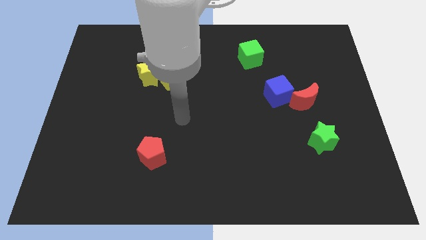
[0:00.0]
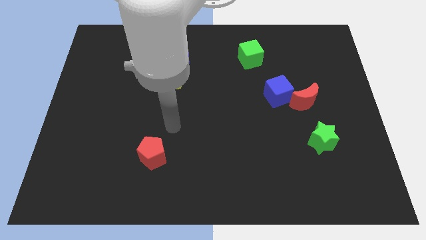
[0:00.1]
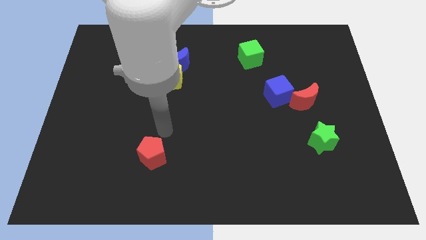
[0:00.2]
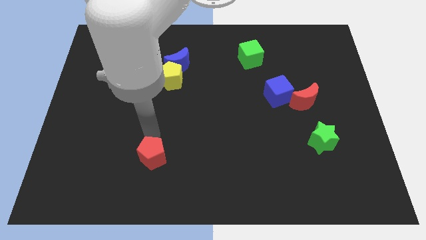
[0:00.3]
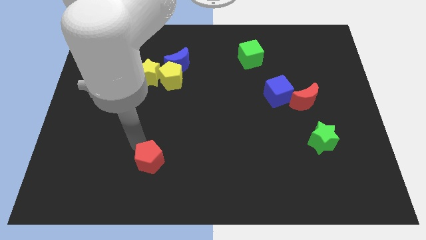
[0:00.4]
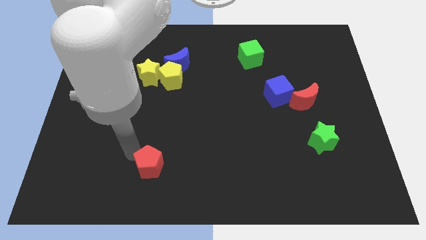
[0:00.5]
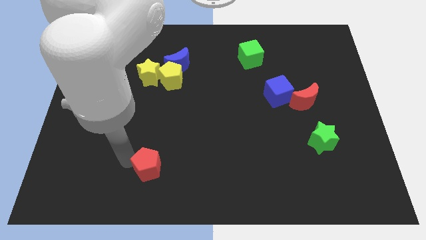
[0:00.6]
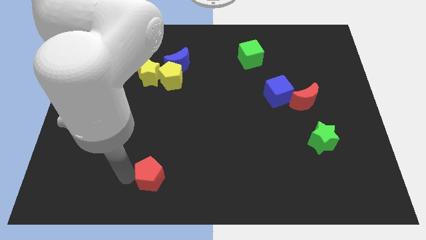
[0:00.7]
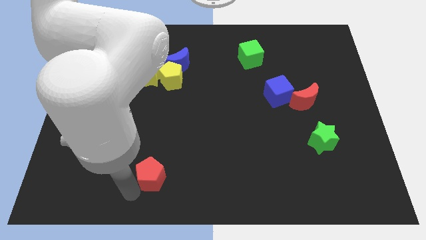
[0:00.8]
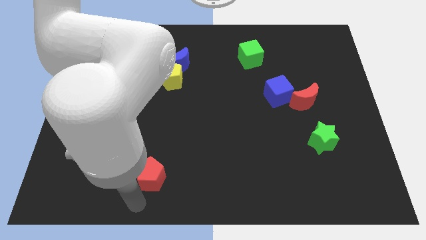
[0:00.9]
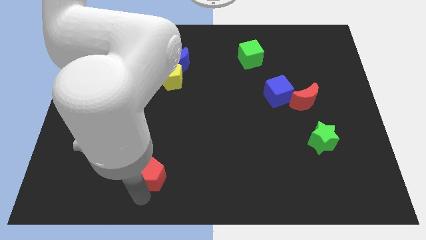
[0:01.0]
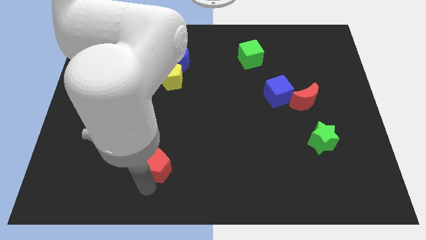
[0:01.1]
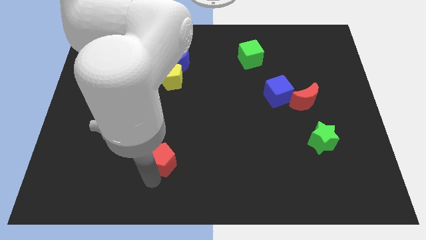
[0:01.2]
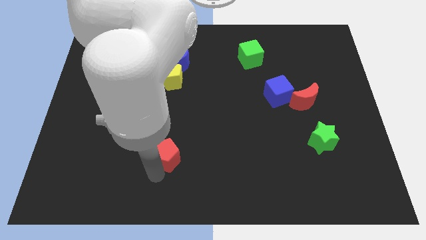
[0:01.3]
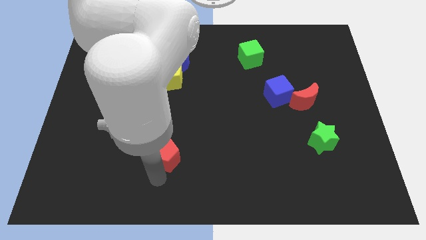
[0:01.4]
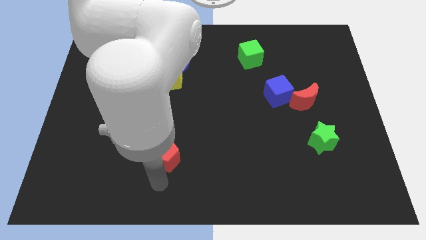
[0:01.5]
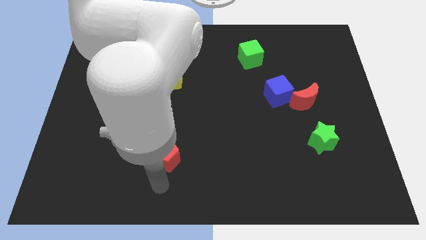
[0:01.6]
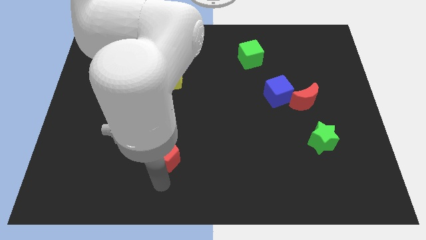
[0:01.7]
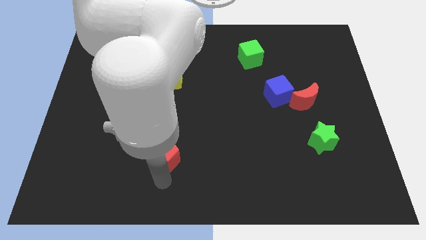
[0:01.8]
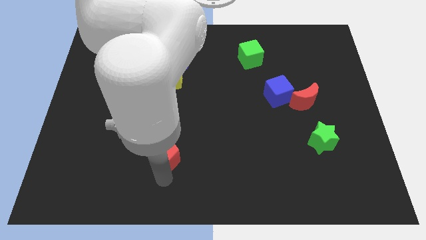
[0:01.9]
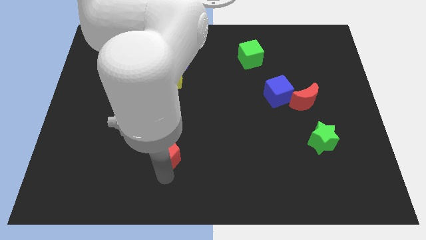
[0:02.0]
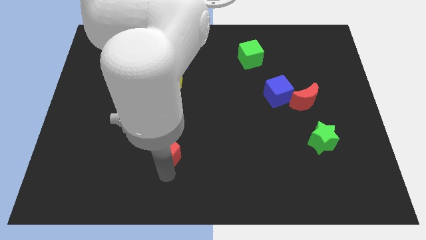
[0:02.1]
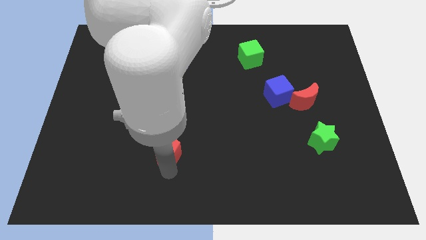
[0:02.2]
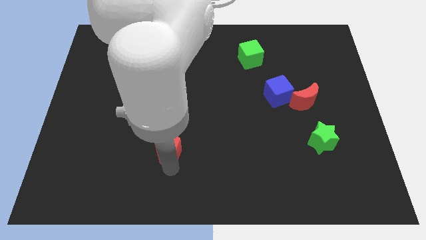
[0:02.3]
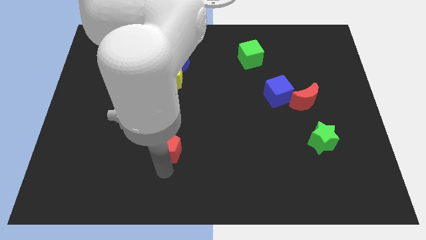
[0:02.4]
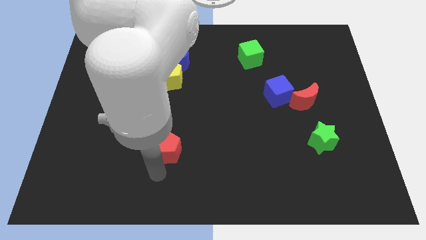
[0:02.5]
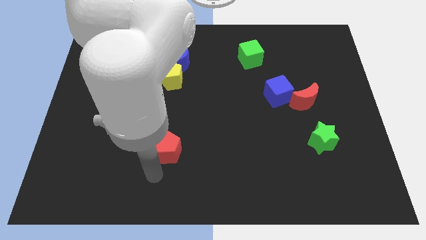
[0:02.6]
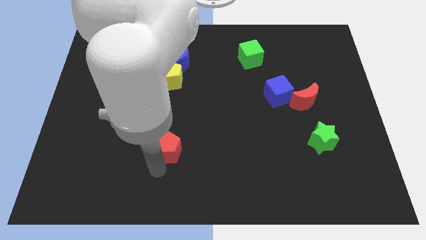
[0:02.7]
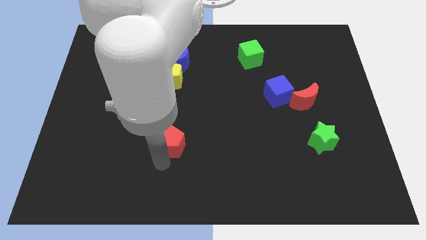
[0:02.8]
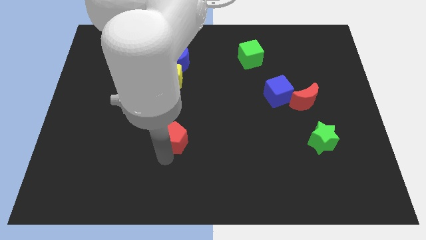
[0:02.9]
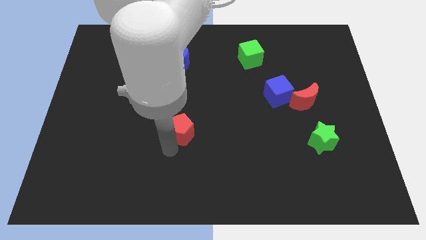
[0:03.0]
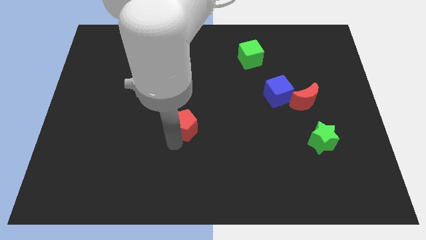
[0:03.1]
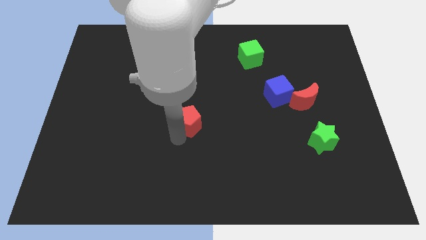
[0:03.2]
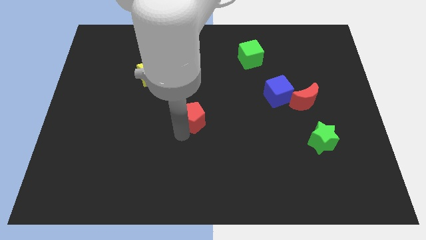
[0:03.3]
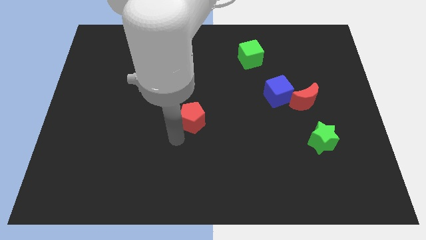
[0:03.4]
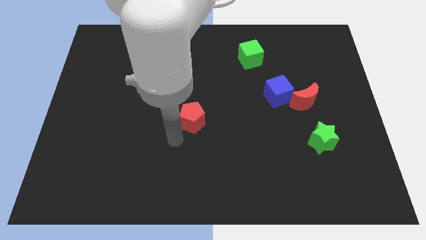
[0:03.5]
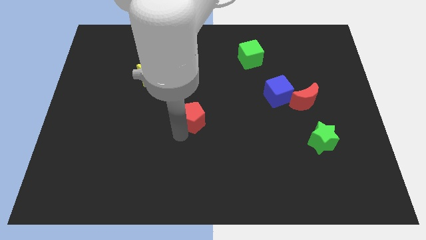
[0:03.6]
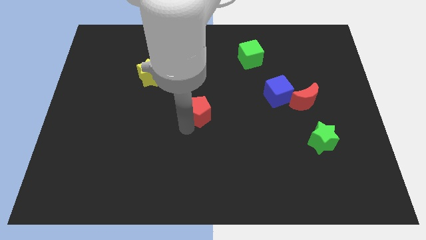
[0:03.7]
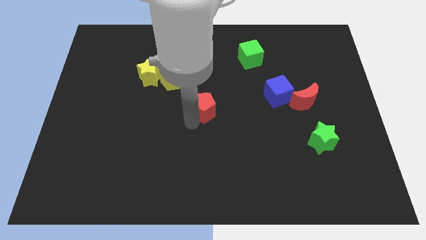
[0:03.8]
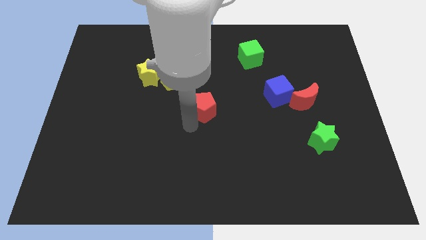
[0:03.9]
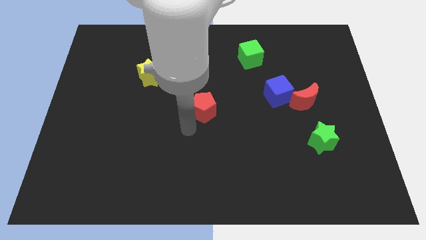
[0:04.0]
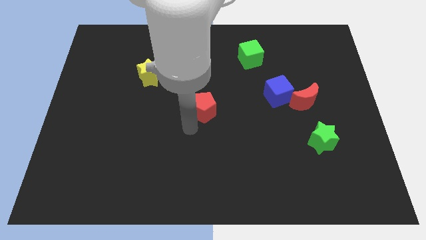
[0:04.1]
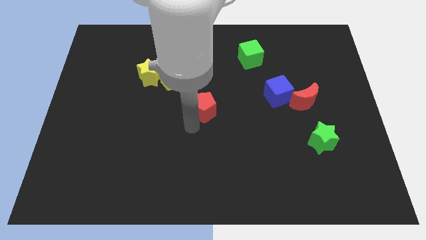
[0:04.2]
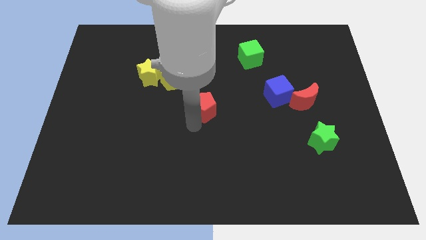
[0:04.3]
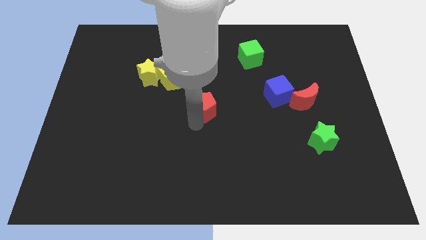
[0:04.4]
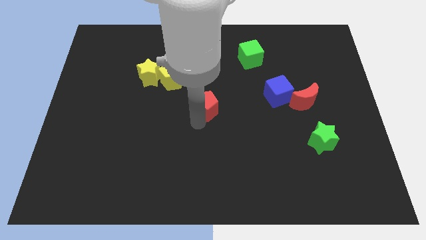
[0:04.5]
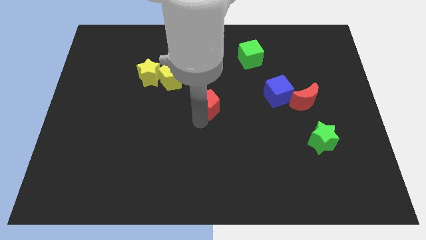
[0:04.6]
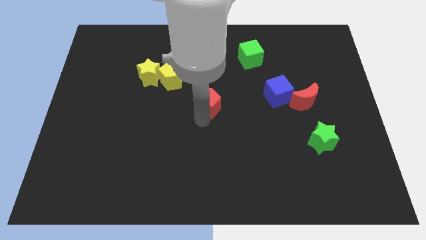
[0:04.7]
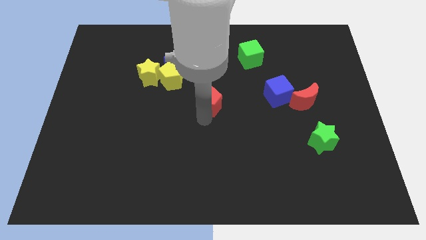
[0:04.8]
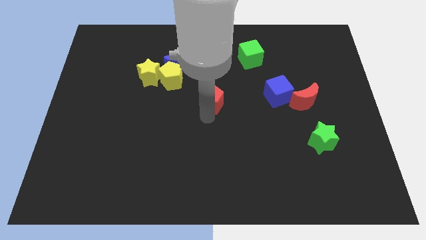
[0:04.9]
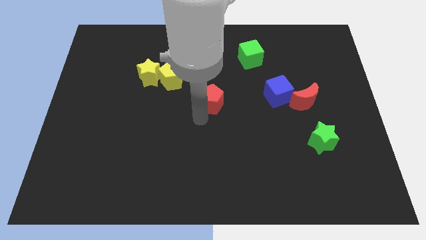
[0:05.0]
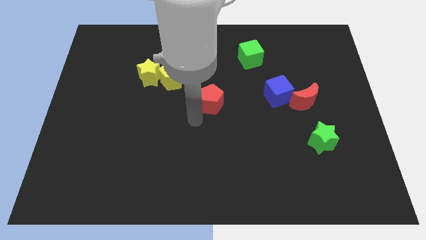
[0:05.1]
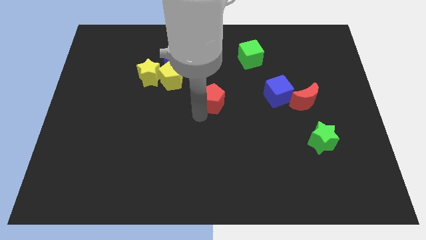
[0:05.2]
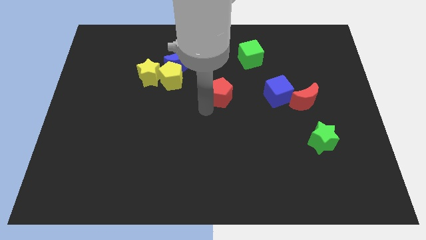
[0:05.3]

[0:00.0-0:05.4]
move the red pentagon diagonally up and to the right

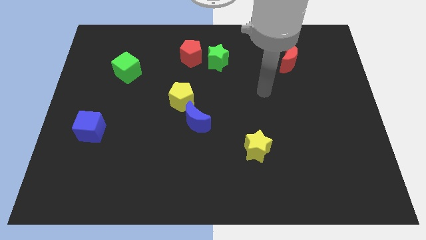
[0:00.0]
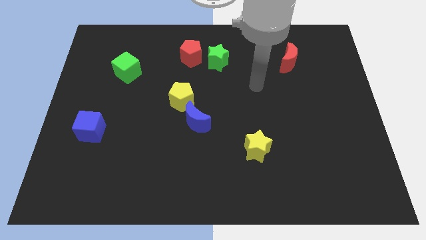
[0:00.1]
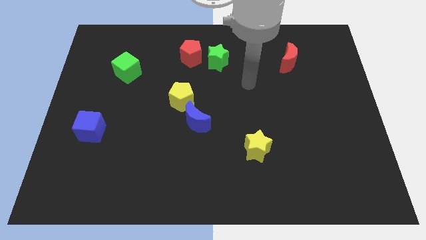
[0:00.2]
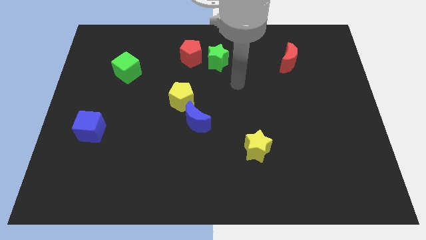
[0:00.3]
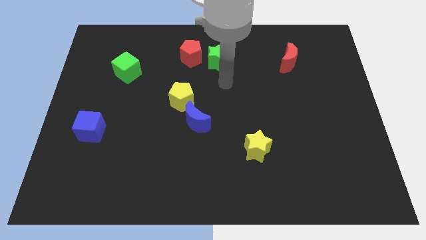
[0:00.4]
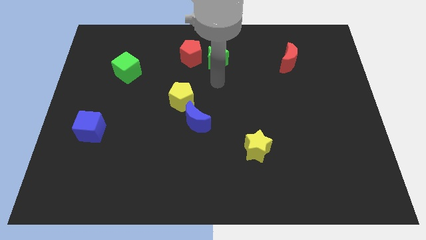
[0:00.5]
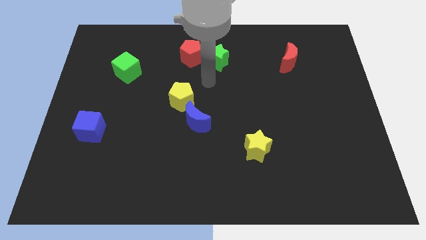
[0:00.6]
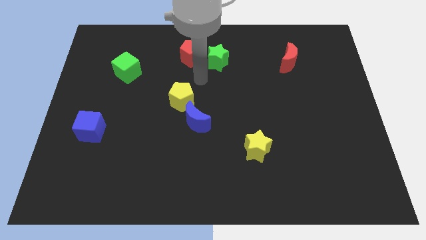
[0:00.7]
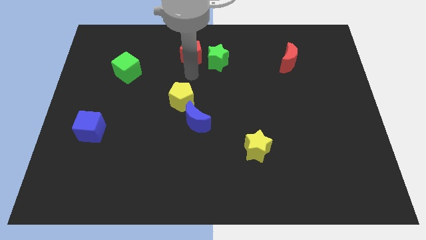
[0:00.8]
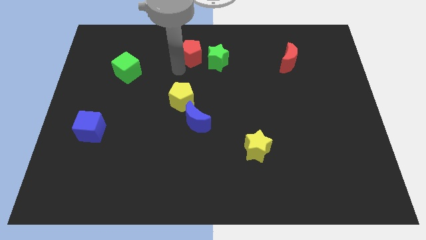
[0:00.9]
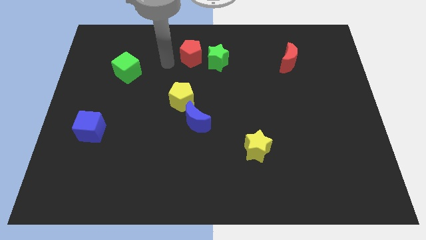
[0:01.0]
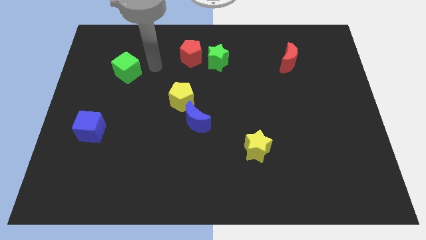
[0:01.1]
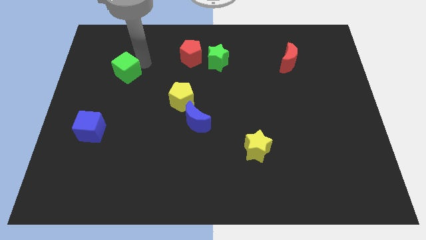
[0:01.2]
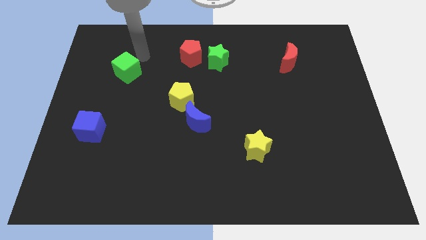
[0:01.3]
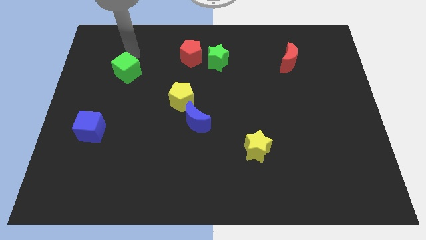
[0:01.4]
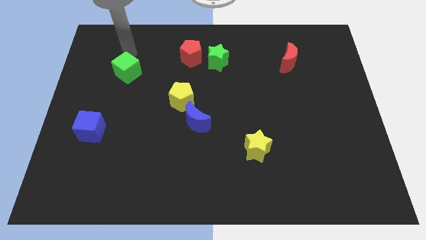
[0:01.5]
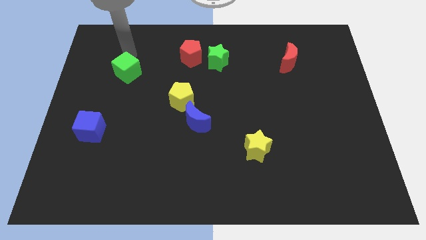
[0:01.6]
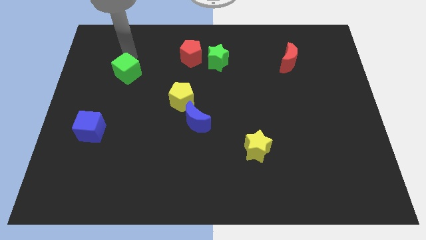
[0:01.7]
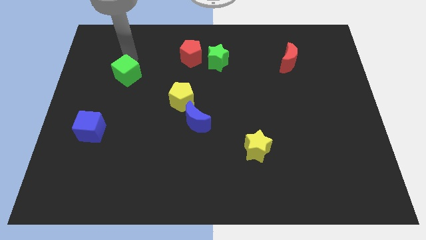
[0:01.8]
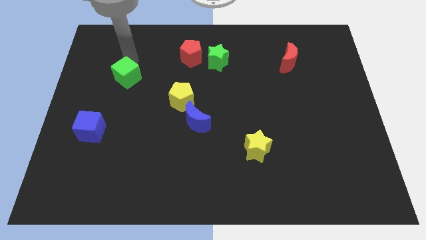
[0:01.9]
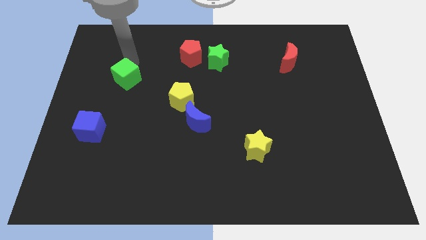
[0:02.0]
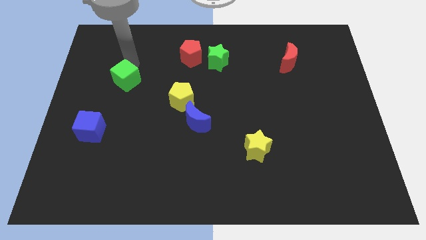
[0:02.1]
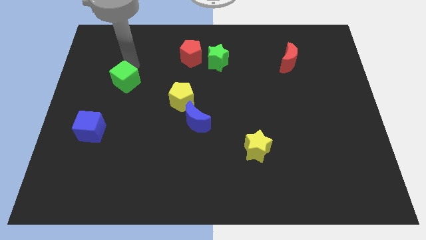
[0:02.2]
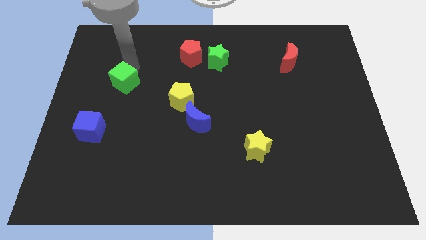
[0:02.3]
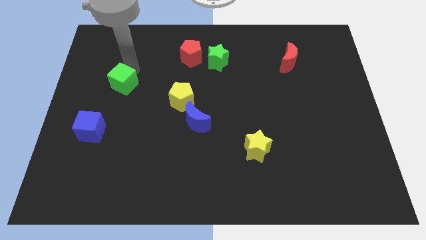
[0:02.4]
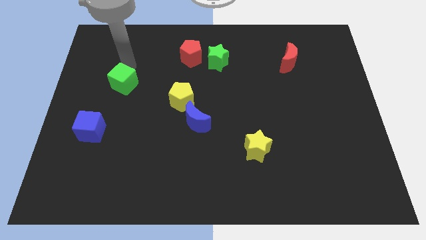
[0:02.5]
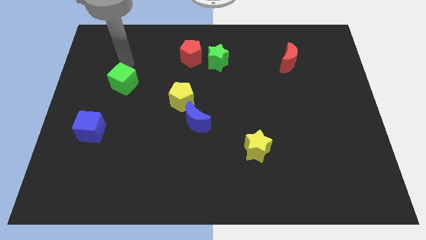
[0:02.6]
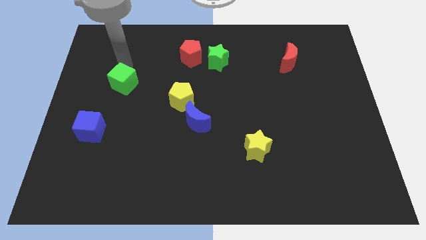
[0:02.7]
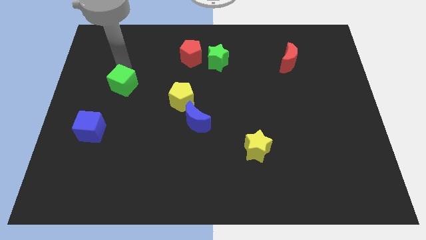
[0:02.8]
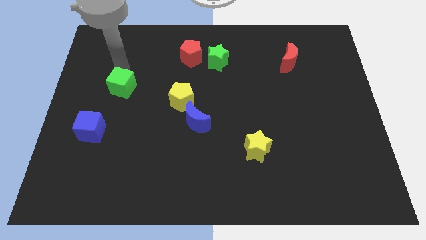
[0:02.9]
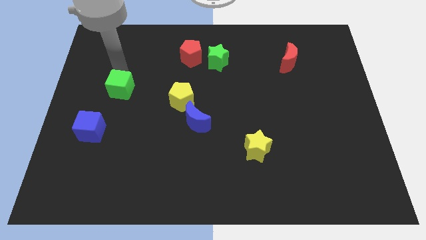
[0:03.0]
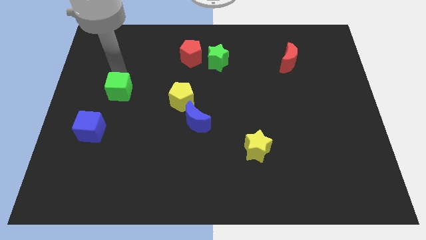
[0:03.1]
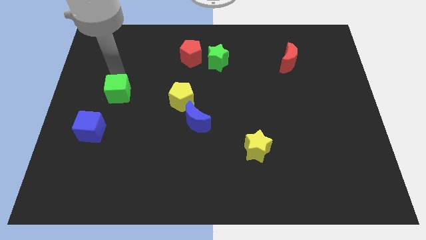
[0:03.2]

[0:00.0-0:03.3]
move the green cube a little bit downwards
